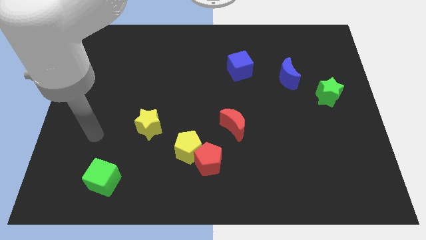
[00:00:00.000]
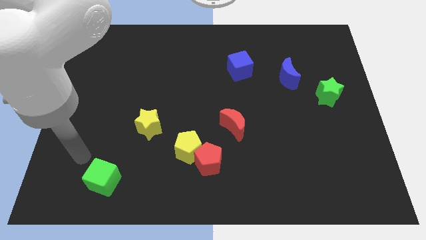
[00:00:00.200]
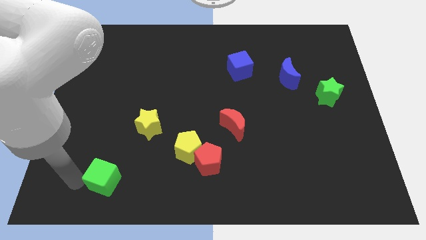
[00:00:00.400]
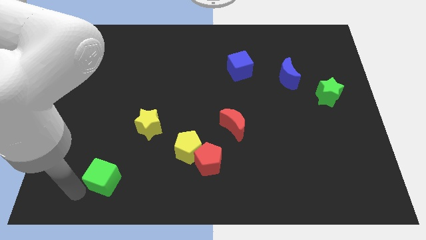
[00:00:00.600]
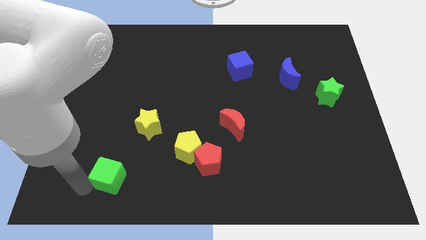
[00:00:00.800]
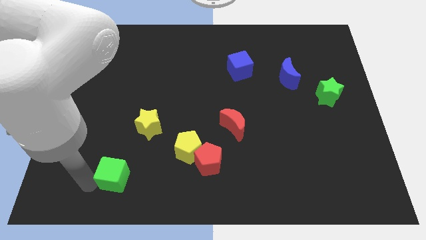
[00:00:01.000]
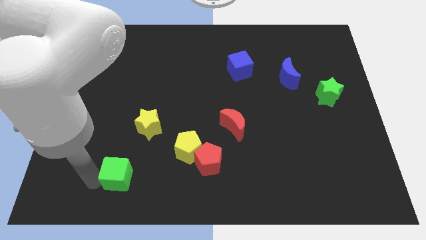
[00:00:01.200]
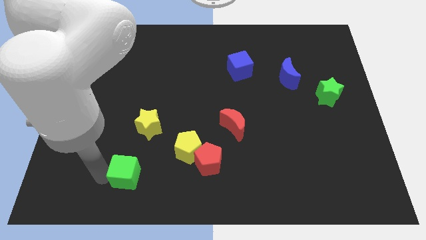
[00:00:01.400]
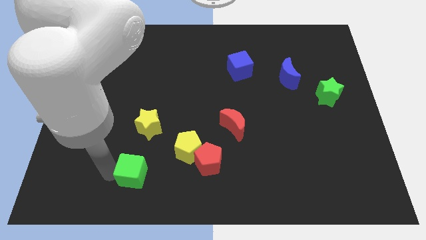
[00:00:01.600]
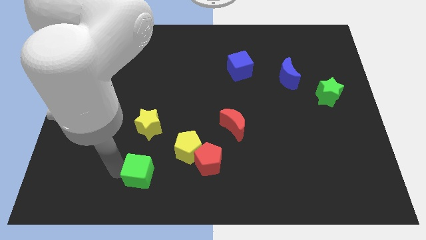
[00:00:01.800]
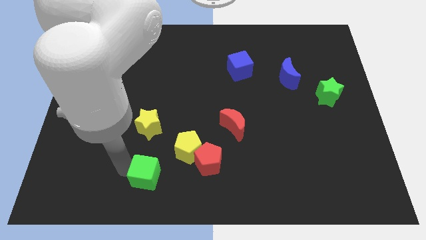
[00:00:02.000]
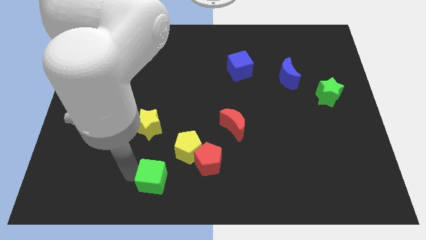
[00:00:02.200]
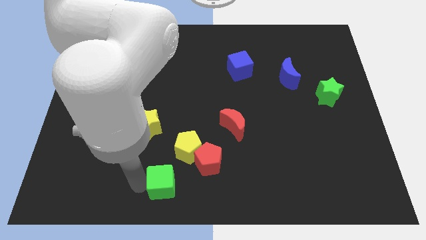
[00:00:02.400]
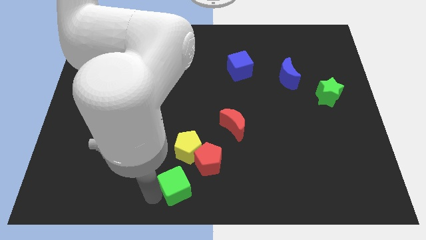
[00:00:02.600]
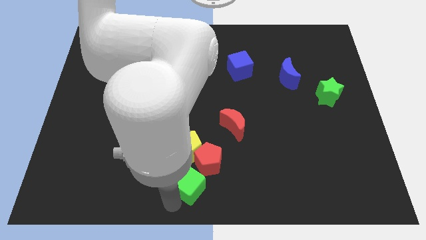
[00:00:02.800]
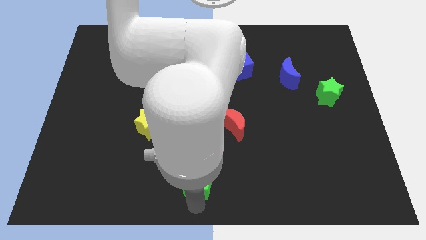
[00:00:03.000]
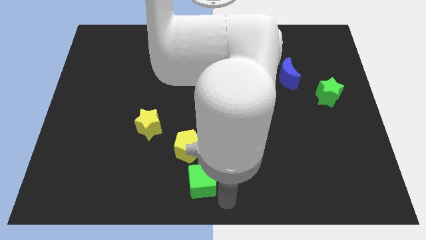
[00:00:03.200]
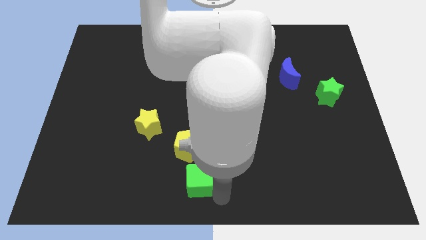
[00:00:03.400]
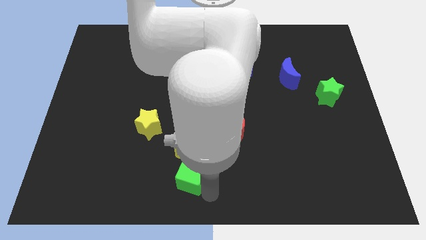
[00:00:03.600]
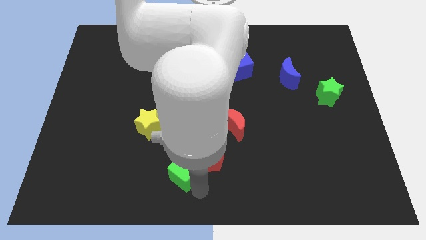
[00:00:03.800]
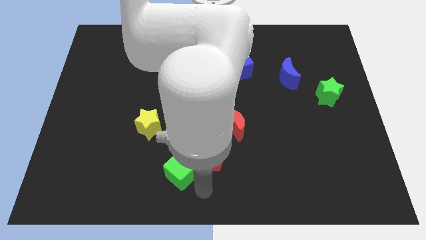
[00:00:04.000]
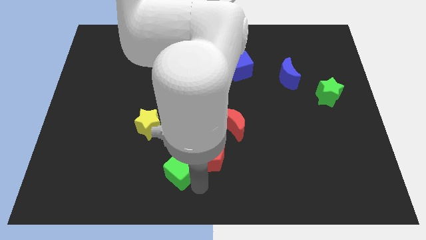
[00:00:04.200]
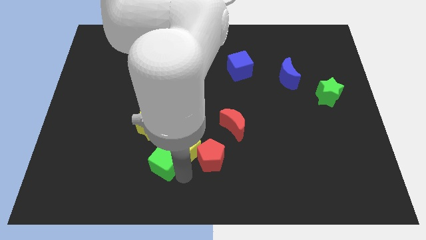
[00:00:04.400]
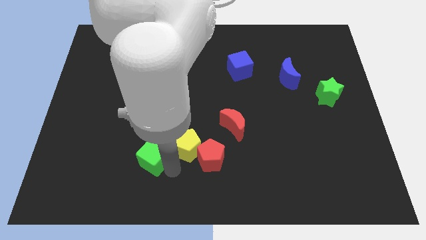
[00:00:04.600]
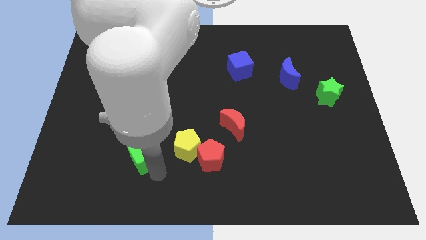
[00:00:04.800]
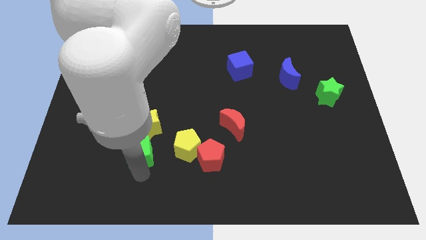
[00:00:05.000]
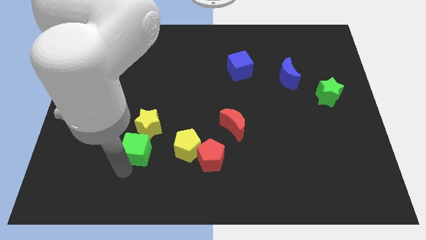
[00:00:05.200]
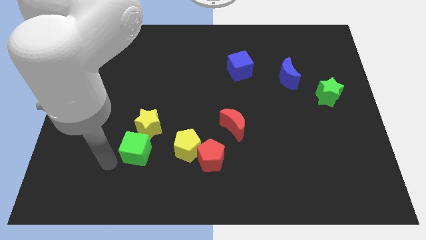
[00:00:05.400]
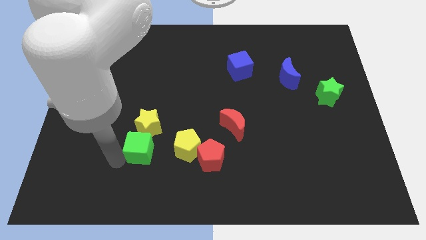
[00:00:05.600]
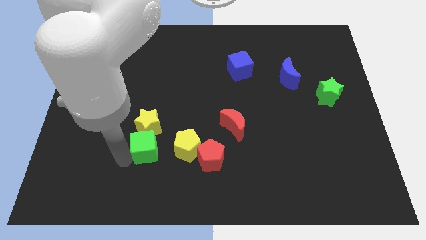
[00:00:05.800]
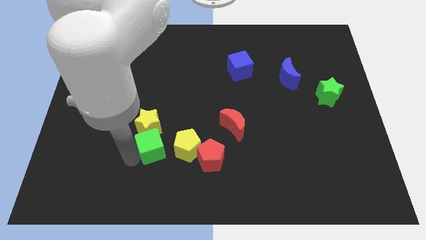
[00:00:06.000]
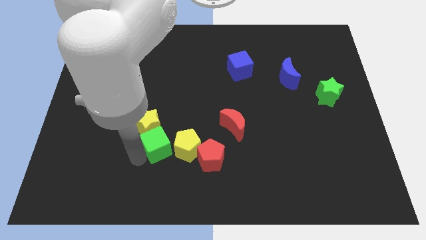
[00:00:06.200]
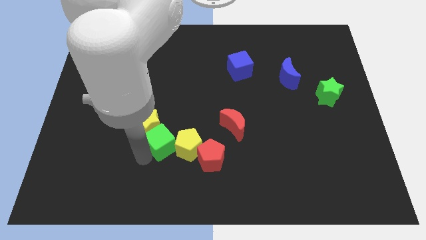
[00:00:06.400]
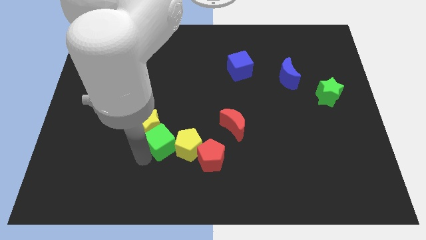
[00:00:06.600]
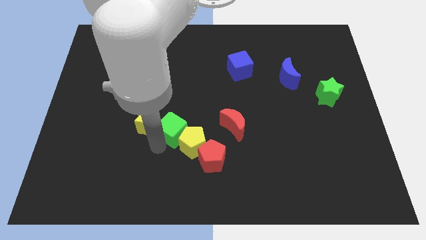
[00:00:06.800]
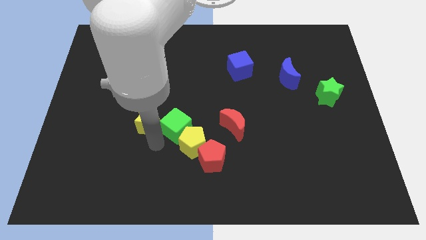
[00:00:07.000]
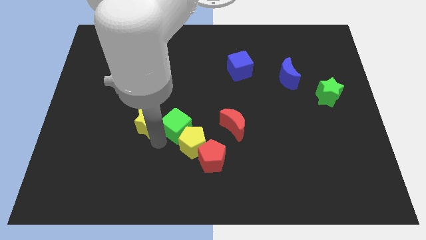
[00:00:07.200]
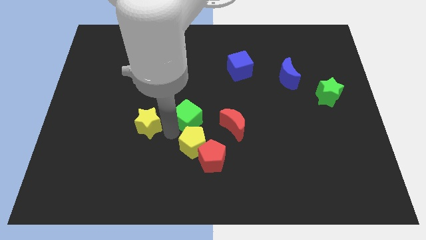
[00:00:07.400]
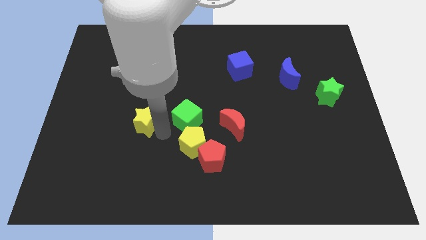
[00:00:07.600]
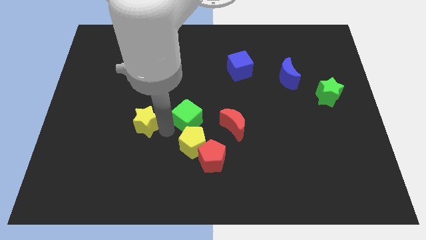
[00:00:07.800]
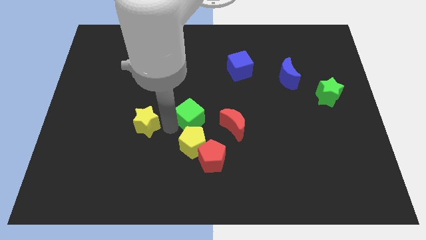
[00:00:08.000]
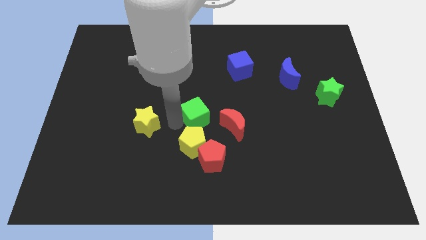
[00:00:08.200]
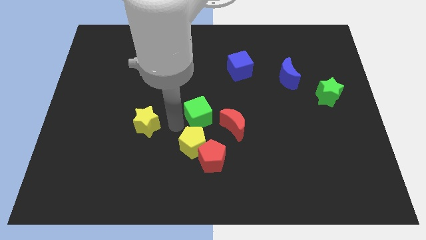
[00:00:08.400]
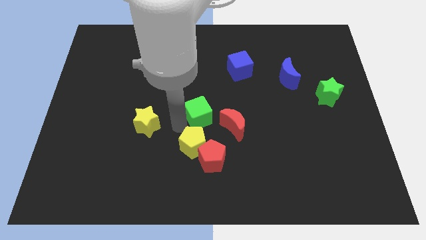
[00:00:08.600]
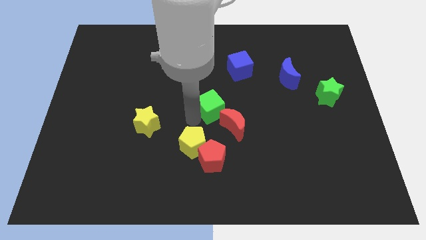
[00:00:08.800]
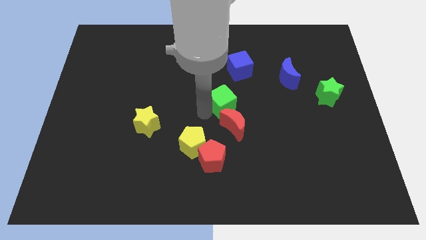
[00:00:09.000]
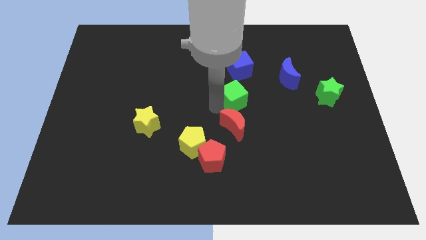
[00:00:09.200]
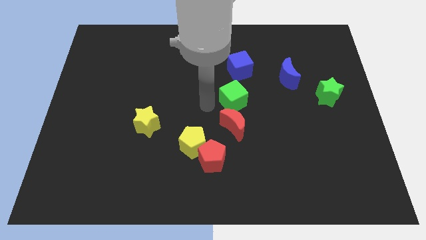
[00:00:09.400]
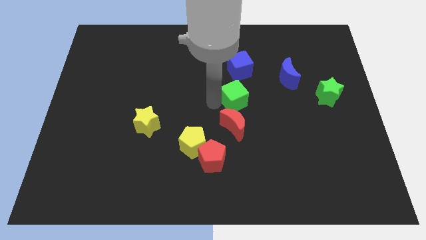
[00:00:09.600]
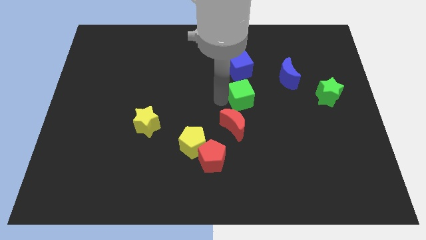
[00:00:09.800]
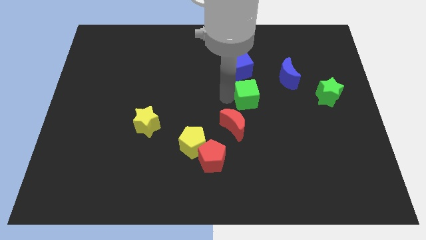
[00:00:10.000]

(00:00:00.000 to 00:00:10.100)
slide the green cube to the bottom left side of the blue moon

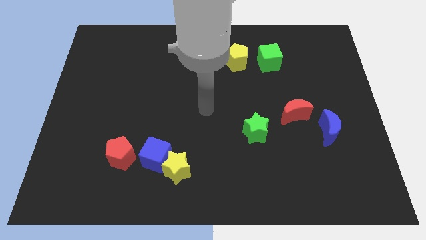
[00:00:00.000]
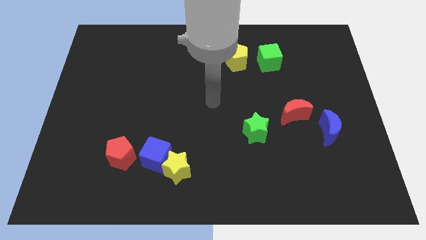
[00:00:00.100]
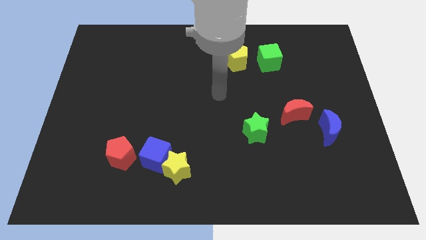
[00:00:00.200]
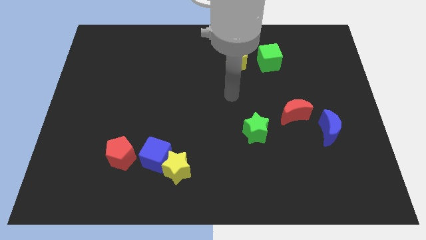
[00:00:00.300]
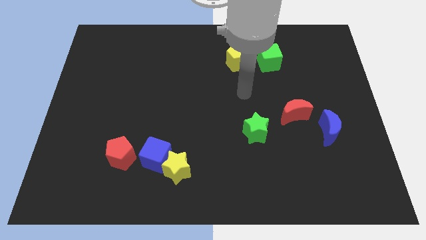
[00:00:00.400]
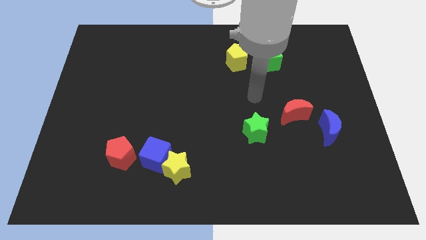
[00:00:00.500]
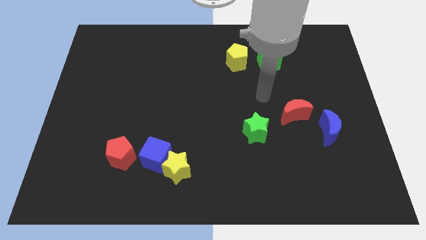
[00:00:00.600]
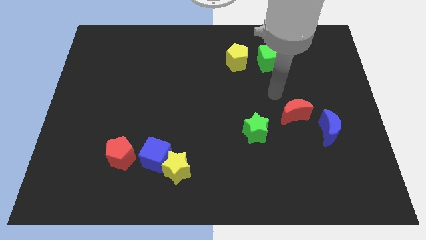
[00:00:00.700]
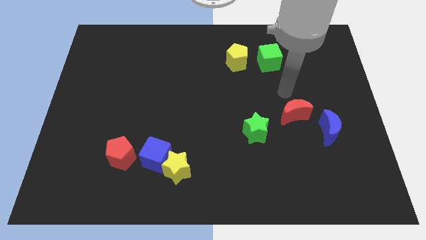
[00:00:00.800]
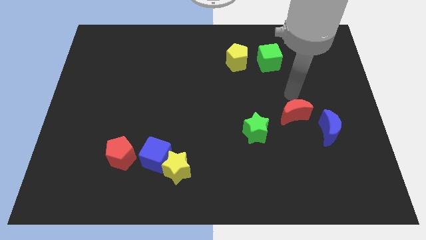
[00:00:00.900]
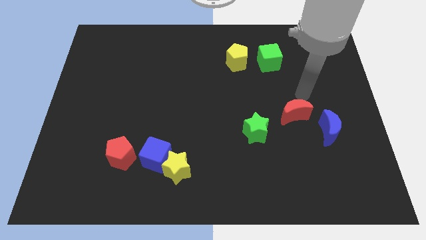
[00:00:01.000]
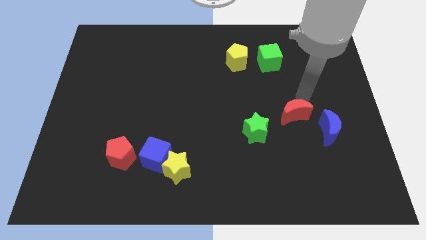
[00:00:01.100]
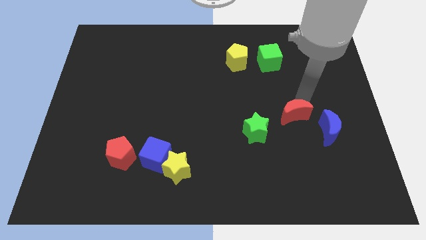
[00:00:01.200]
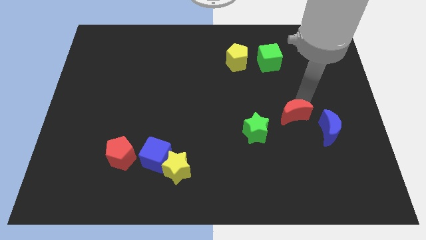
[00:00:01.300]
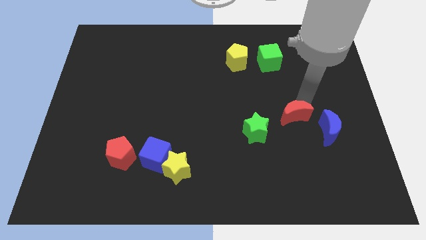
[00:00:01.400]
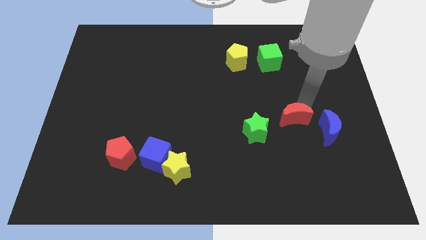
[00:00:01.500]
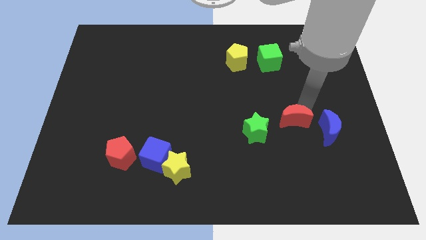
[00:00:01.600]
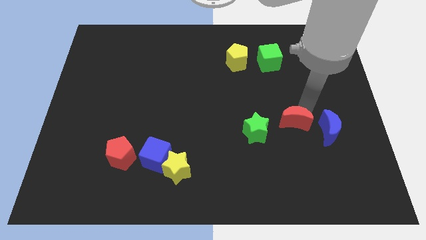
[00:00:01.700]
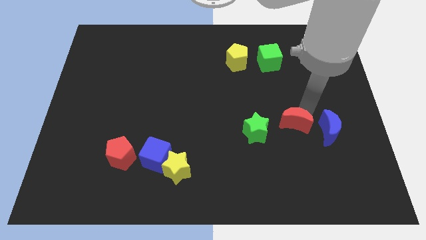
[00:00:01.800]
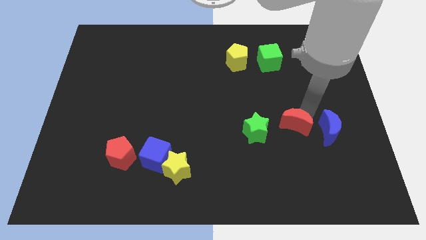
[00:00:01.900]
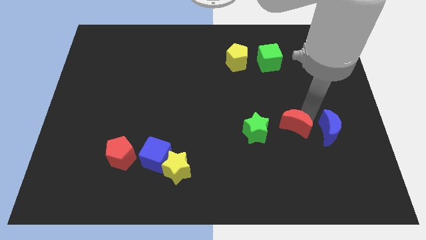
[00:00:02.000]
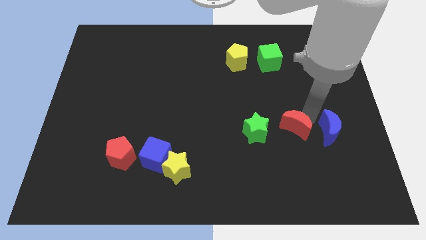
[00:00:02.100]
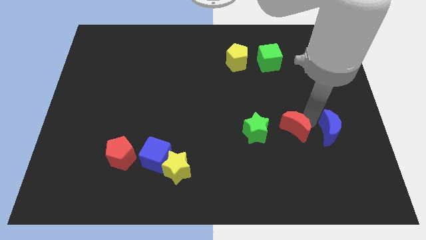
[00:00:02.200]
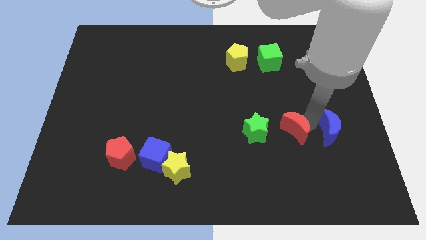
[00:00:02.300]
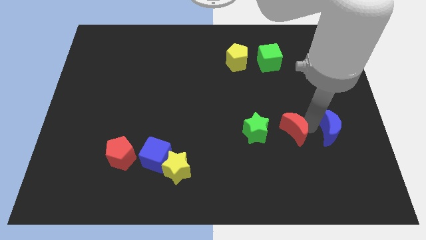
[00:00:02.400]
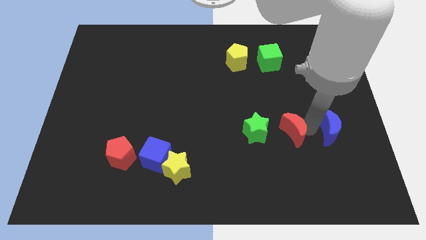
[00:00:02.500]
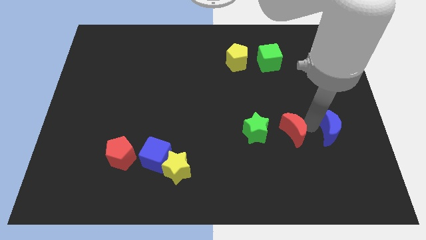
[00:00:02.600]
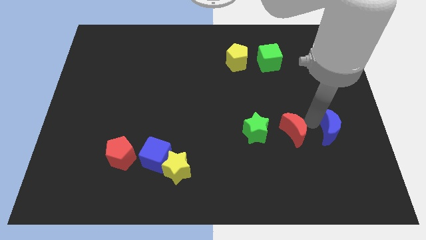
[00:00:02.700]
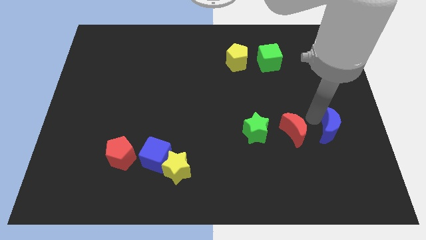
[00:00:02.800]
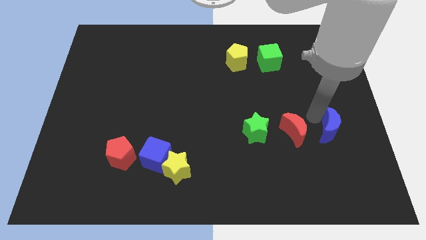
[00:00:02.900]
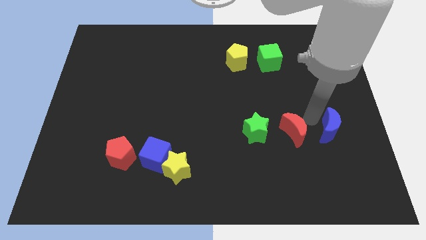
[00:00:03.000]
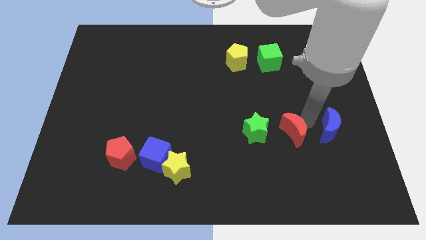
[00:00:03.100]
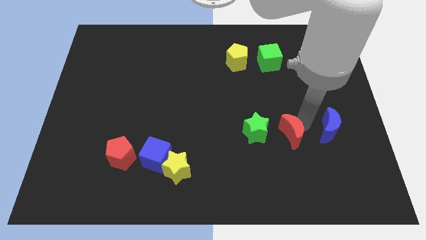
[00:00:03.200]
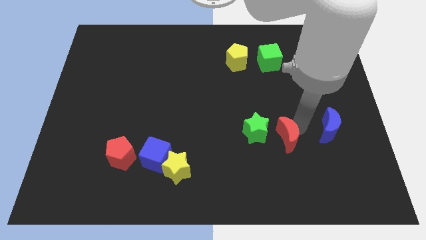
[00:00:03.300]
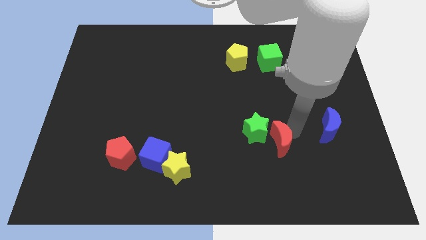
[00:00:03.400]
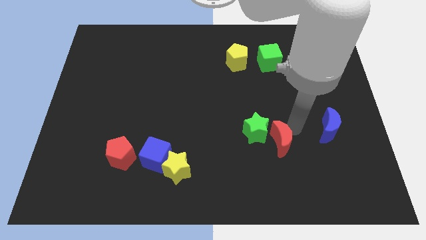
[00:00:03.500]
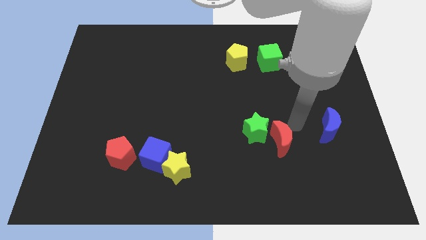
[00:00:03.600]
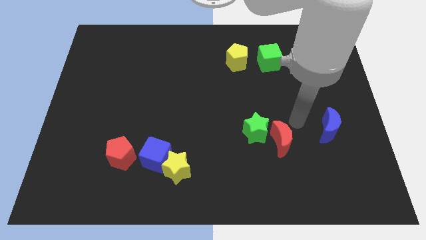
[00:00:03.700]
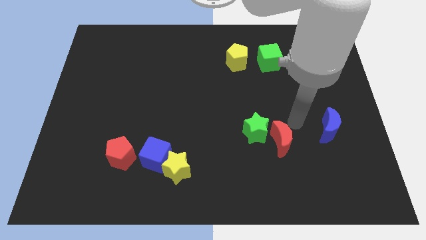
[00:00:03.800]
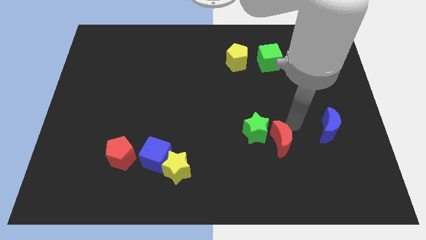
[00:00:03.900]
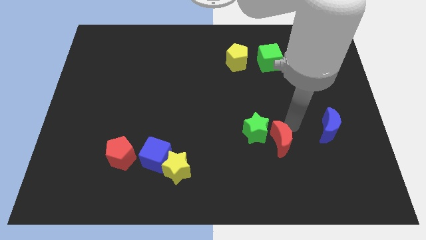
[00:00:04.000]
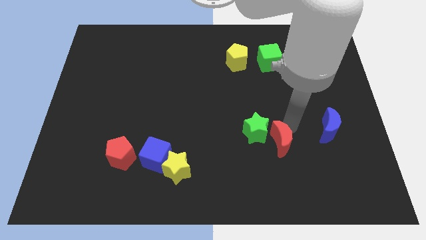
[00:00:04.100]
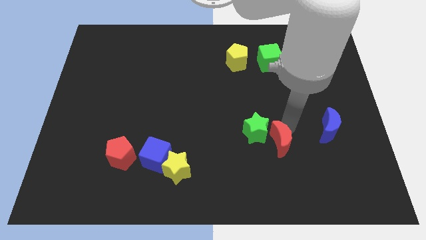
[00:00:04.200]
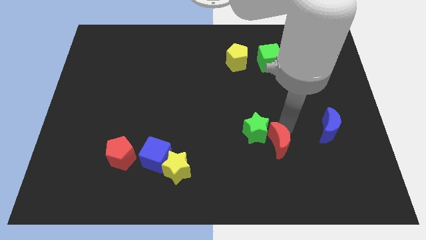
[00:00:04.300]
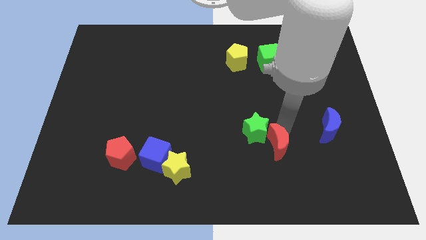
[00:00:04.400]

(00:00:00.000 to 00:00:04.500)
push the red moon below the green star
